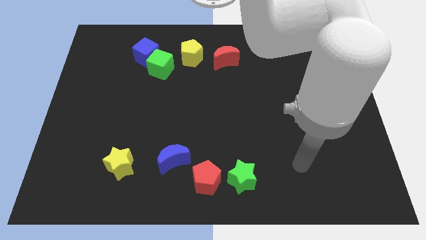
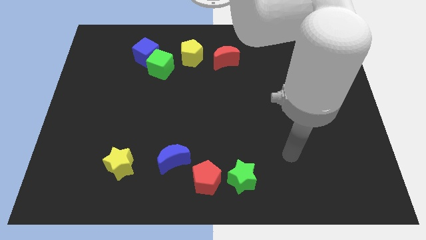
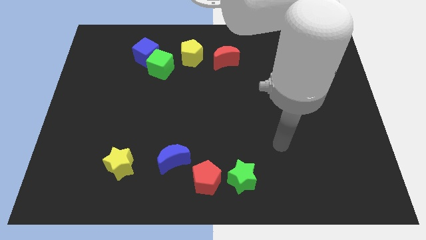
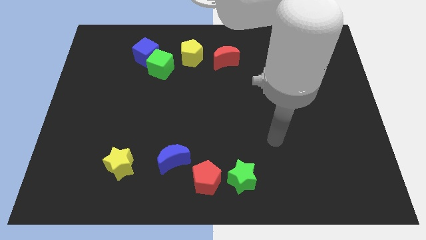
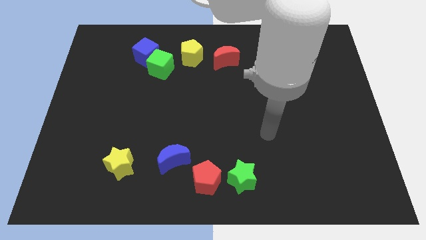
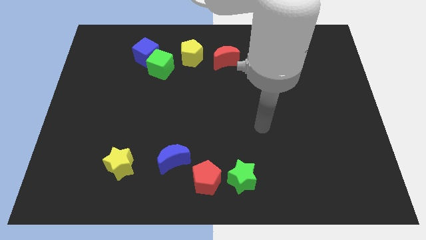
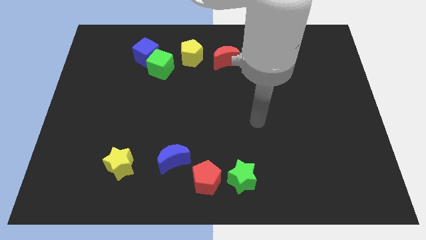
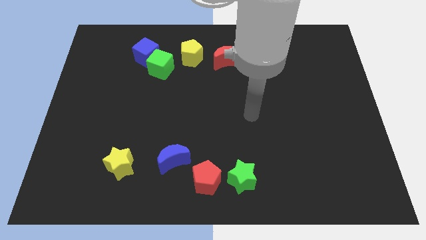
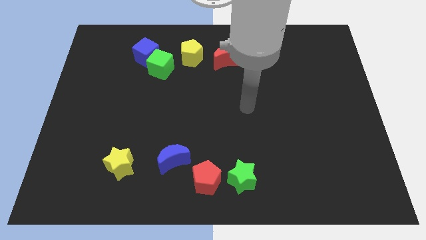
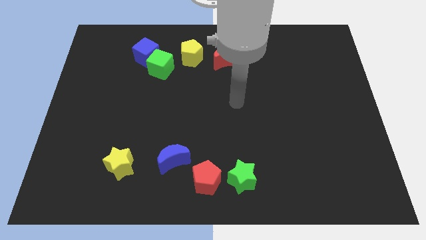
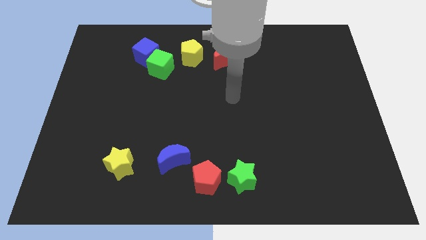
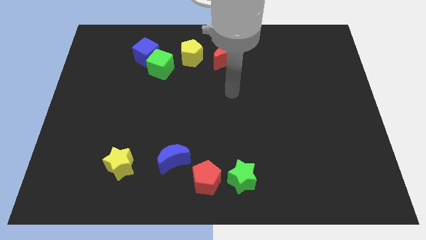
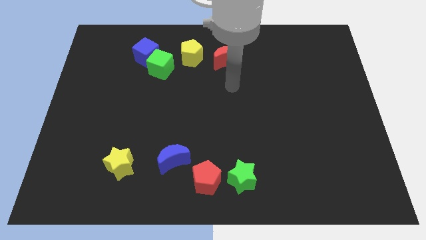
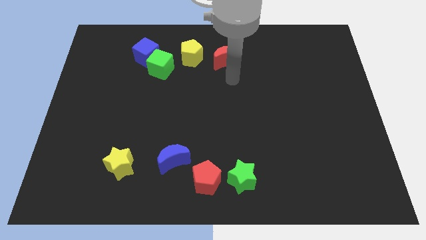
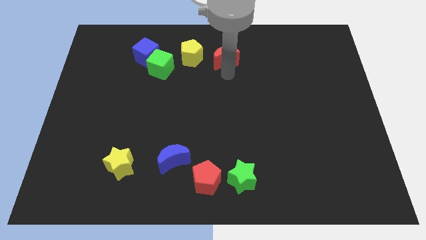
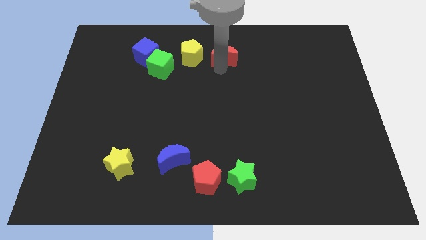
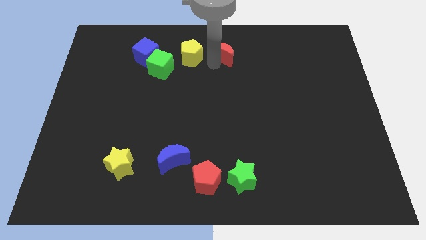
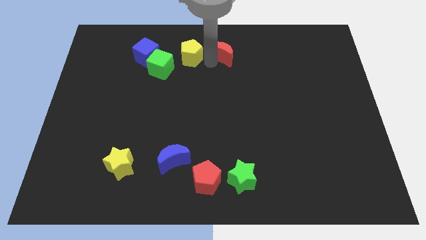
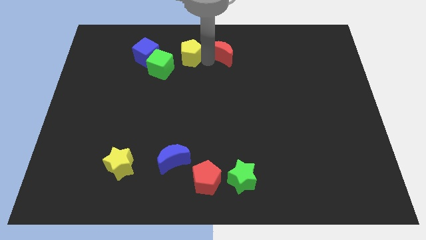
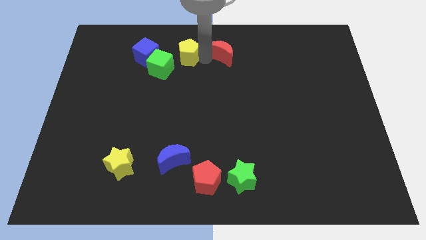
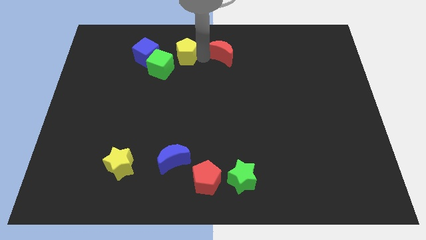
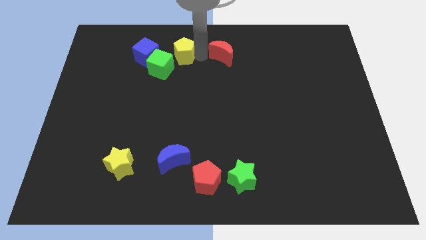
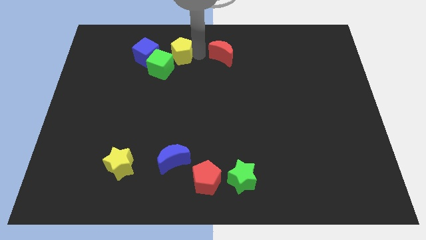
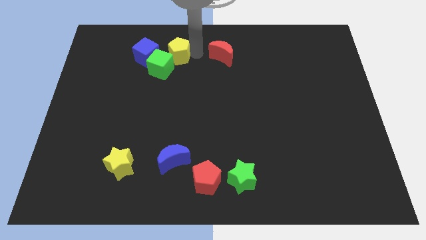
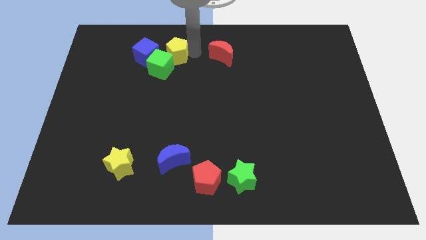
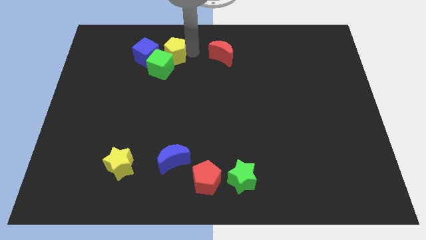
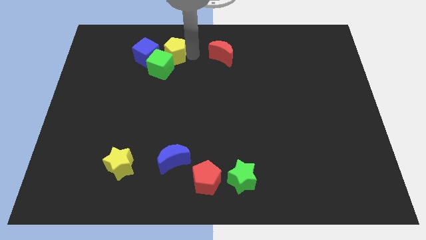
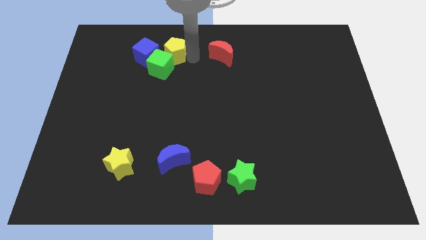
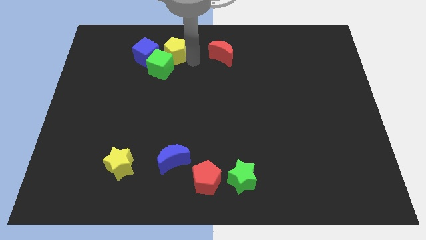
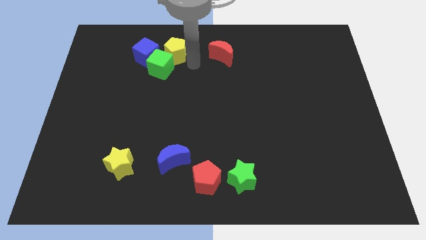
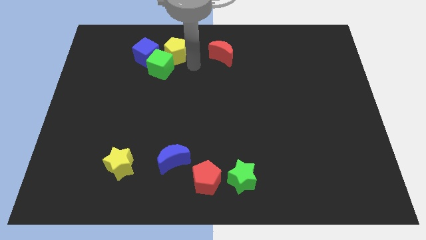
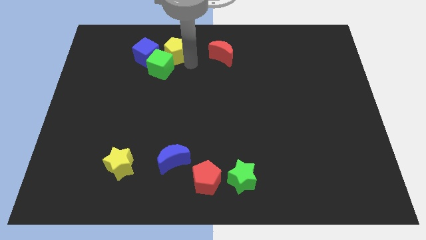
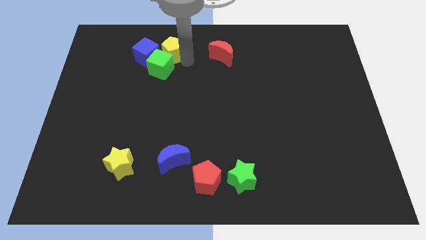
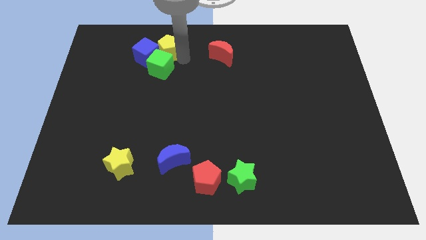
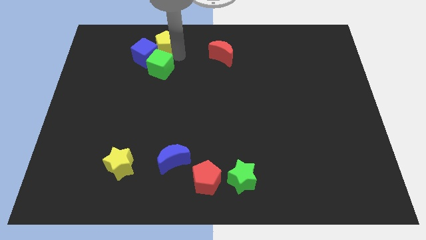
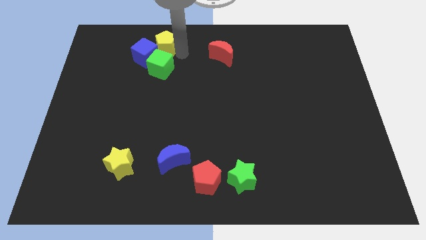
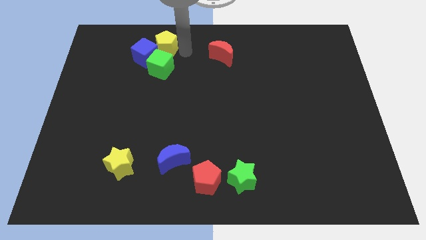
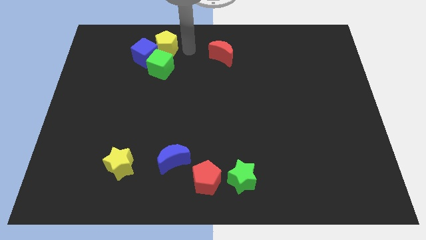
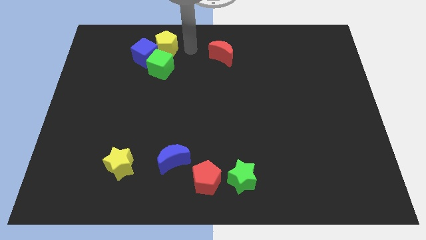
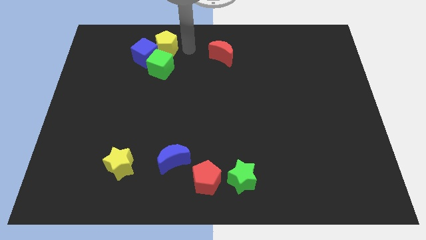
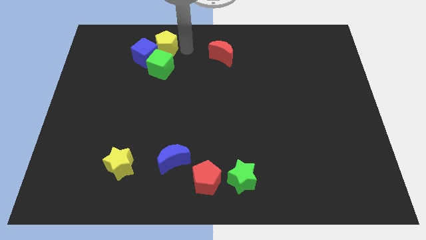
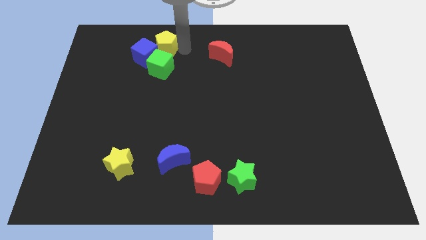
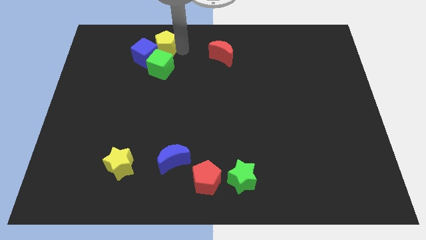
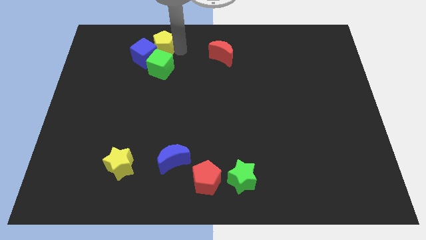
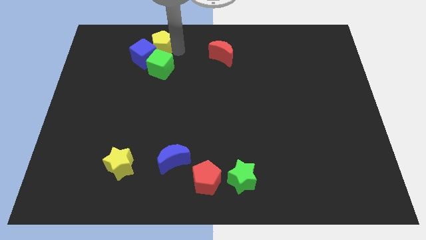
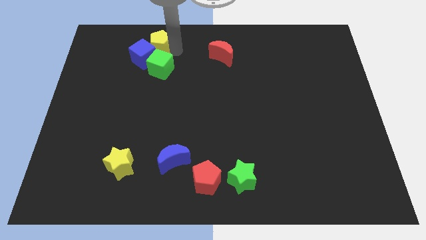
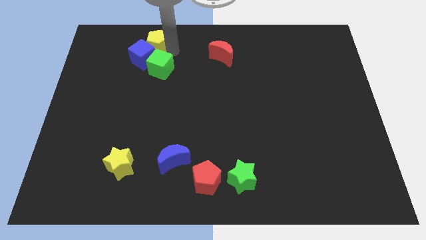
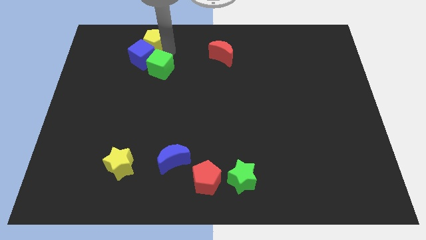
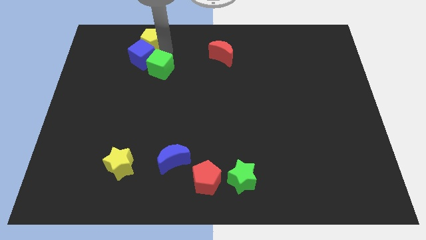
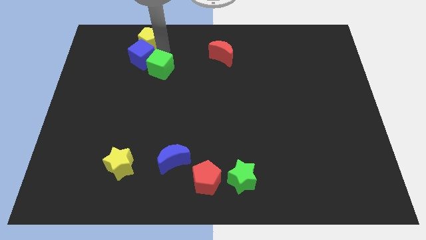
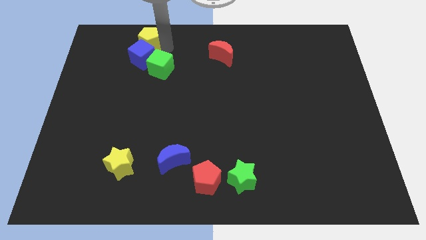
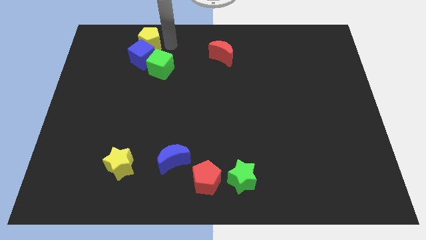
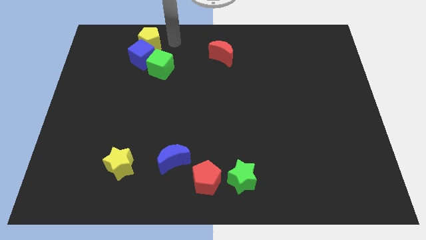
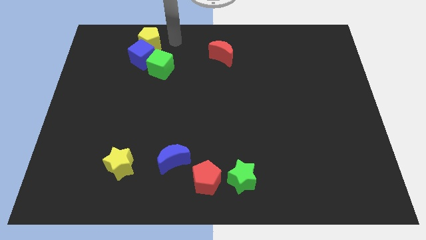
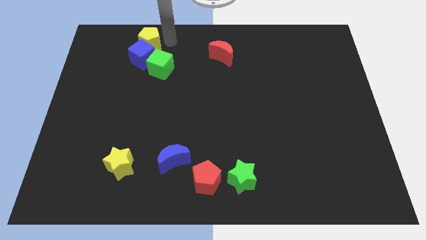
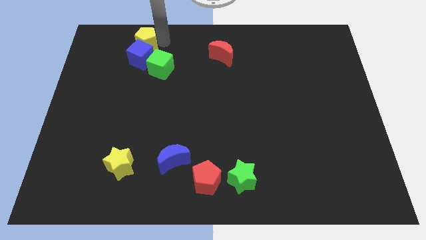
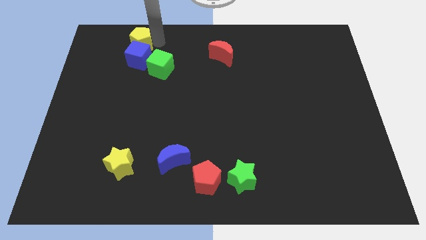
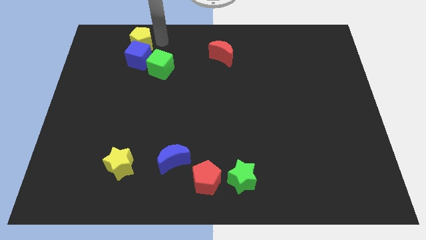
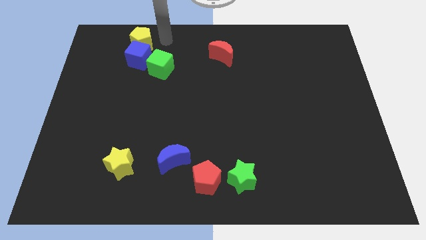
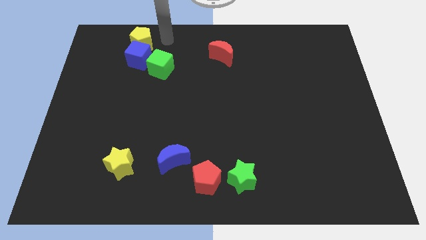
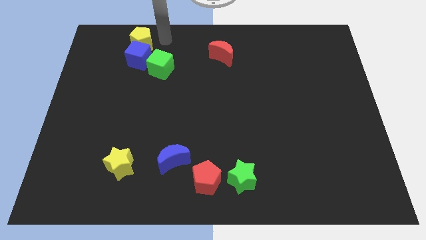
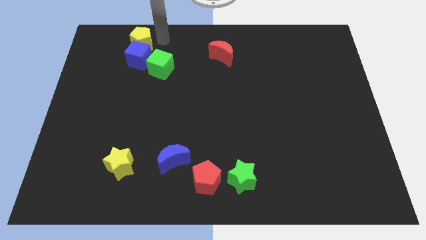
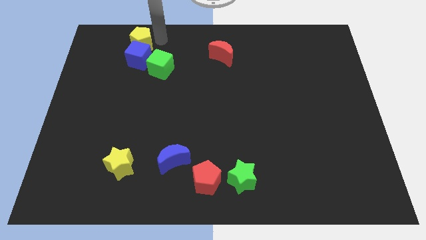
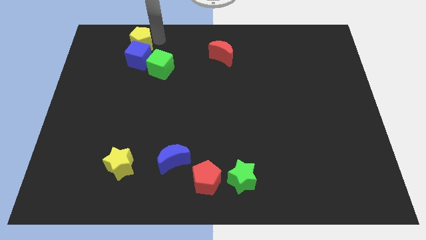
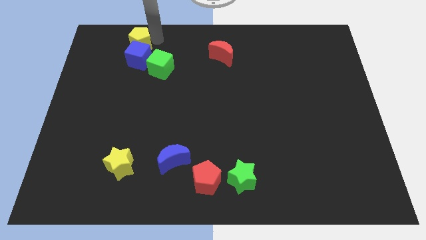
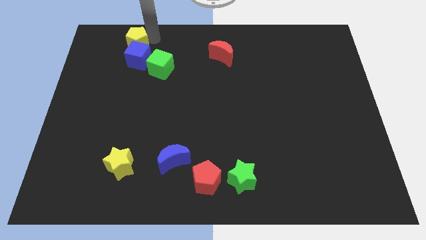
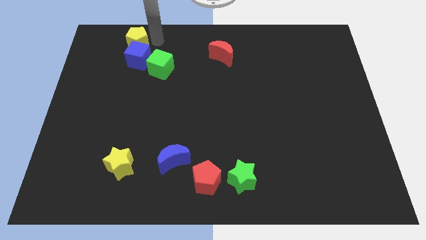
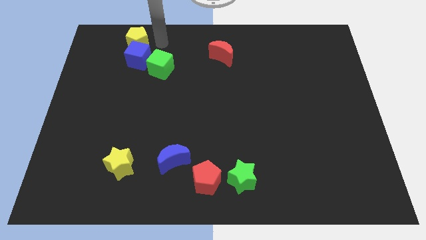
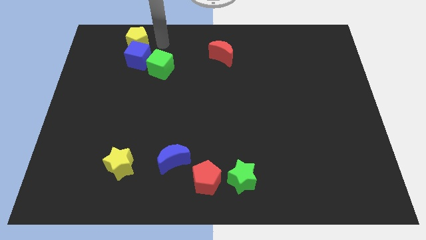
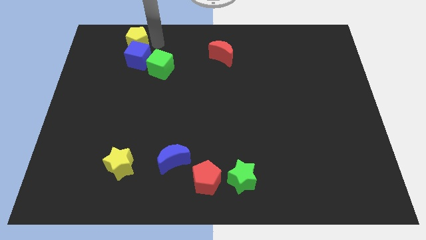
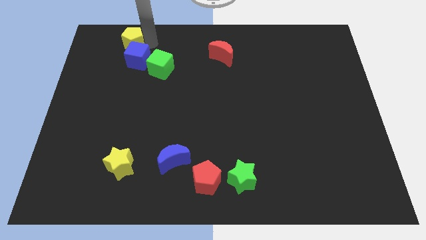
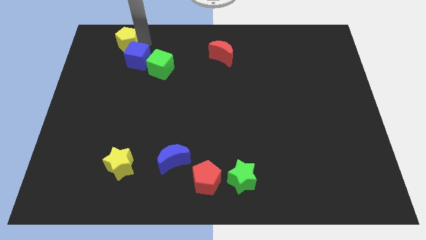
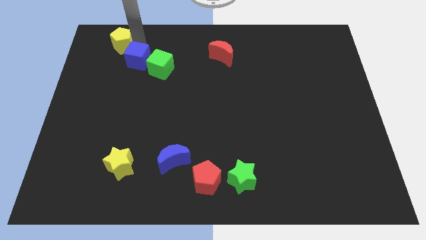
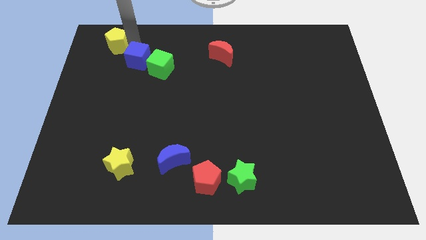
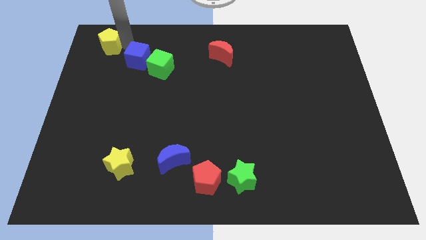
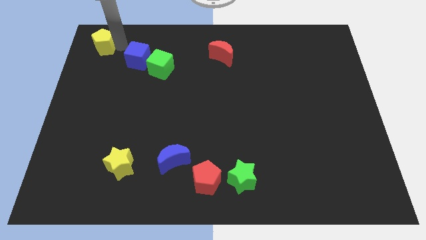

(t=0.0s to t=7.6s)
move the yellow pentagon to the top left corner
